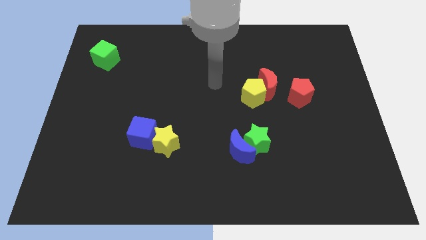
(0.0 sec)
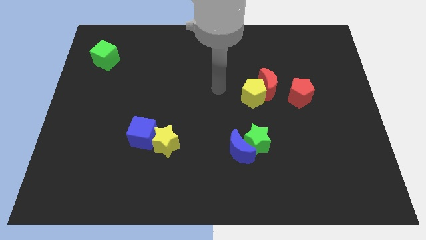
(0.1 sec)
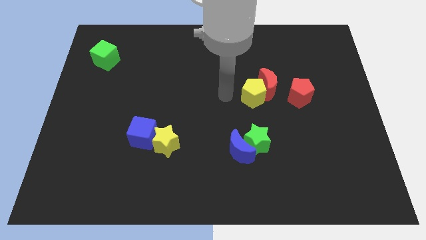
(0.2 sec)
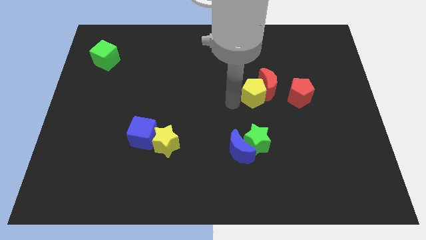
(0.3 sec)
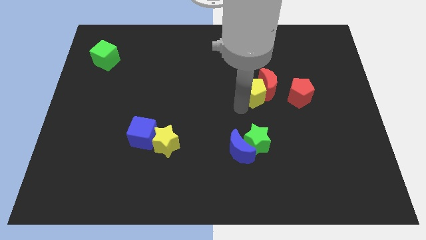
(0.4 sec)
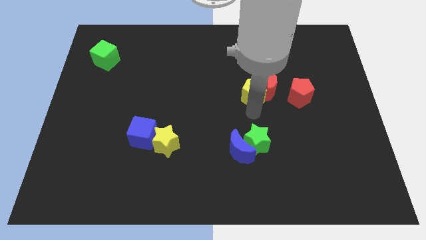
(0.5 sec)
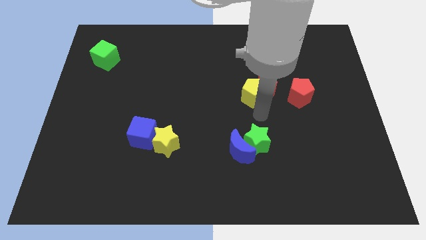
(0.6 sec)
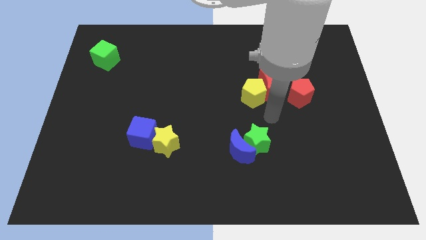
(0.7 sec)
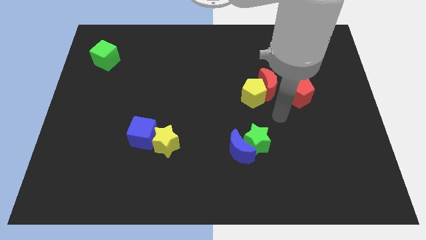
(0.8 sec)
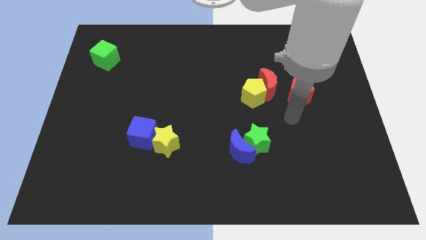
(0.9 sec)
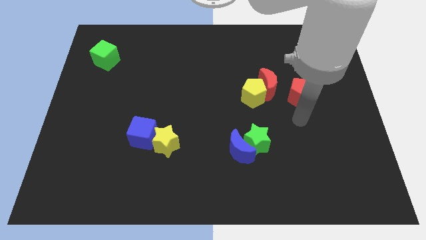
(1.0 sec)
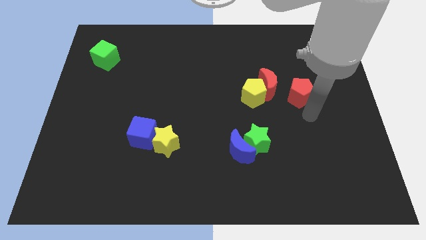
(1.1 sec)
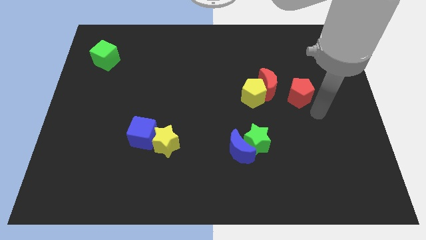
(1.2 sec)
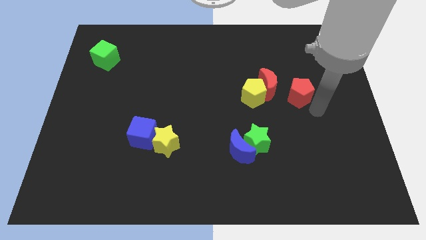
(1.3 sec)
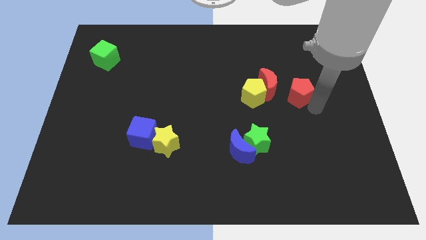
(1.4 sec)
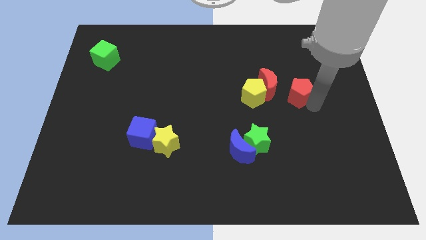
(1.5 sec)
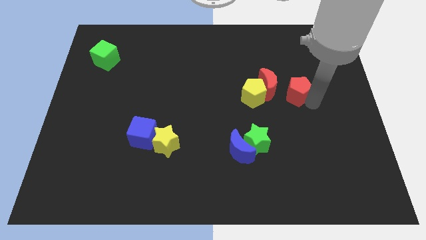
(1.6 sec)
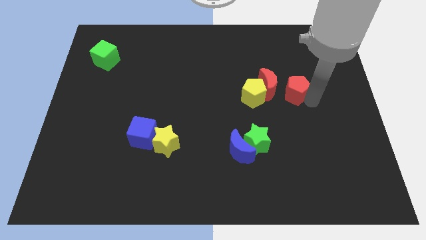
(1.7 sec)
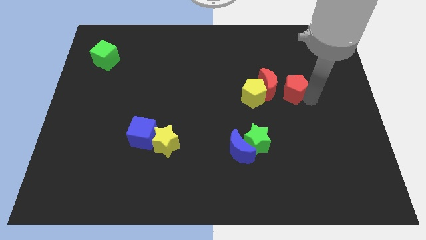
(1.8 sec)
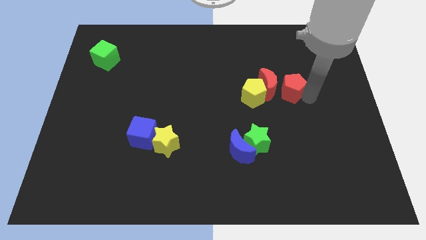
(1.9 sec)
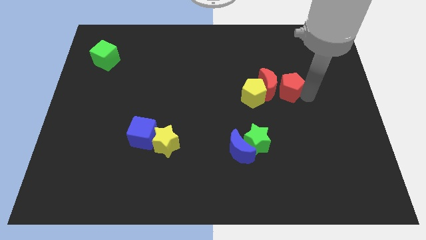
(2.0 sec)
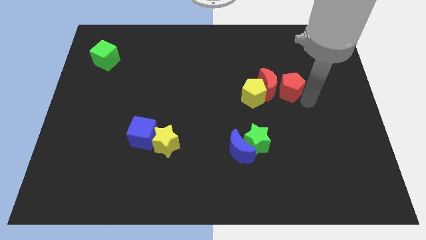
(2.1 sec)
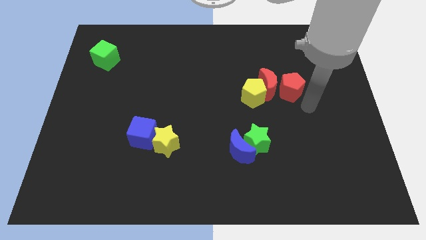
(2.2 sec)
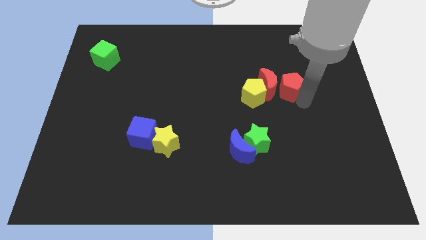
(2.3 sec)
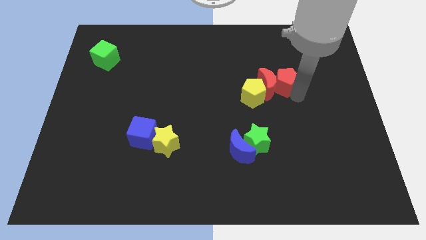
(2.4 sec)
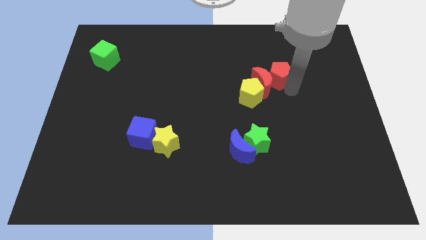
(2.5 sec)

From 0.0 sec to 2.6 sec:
push the red pentagon diagonally upwards and left somewhat

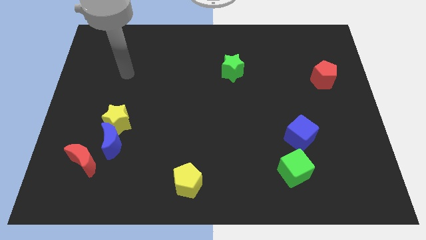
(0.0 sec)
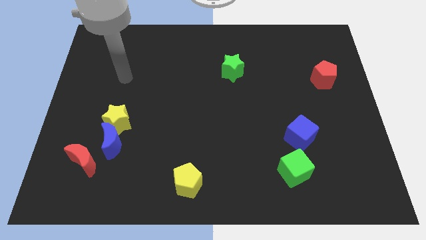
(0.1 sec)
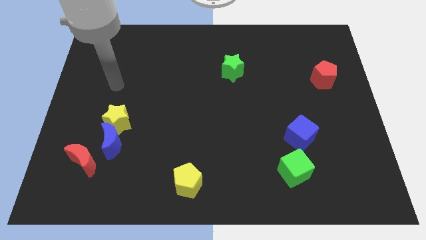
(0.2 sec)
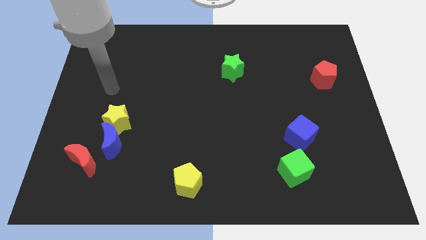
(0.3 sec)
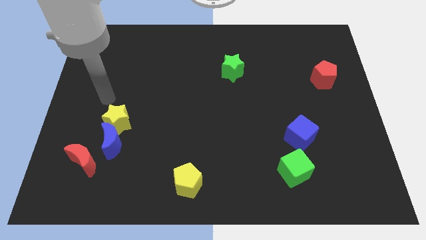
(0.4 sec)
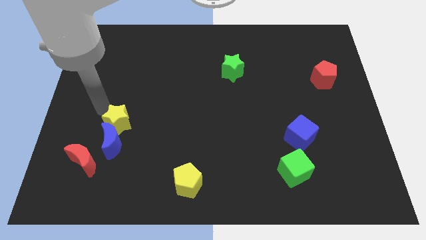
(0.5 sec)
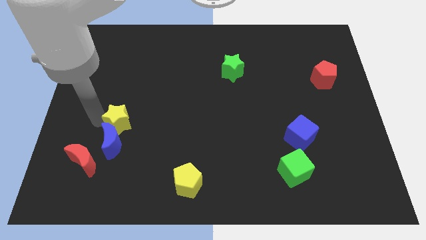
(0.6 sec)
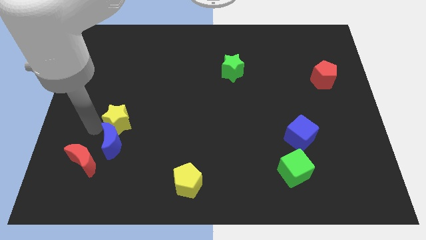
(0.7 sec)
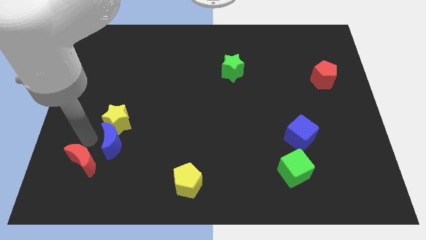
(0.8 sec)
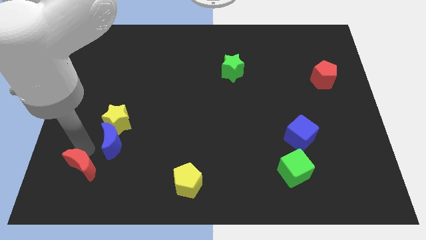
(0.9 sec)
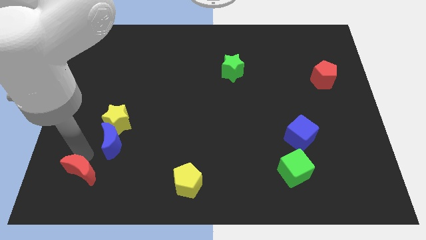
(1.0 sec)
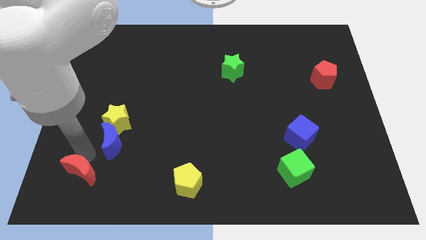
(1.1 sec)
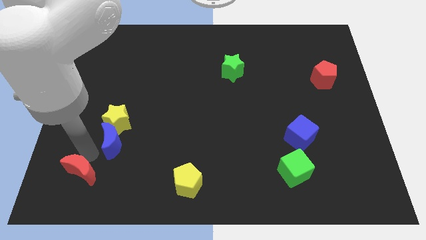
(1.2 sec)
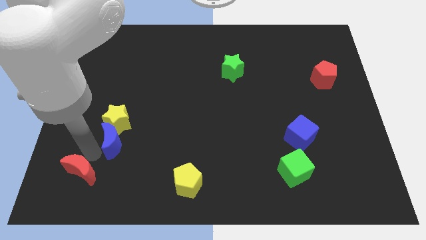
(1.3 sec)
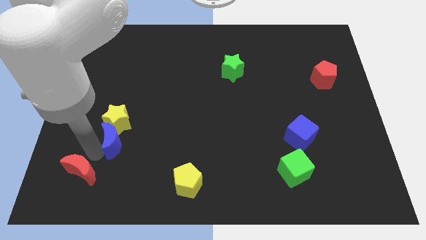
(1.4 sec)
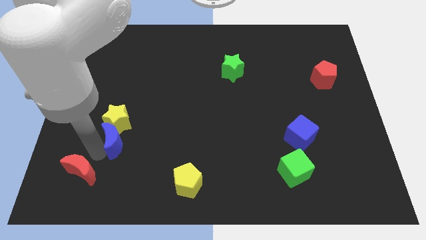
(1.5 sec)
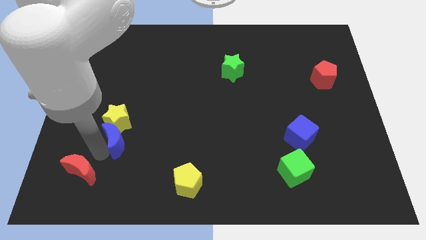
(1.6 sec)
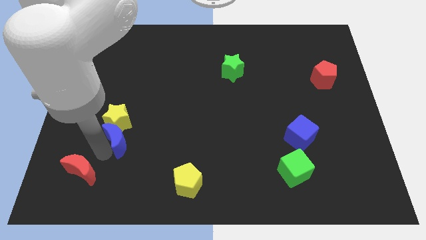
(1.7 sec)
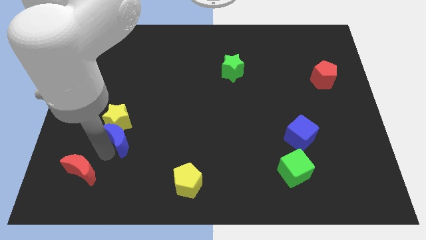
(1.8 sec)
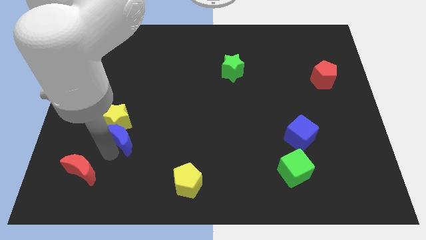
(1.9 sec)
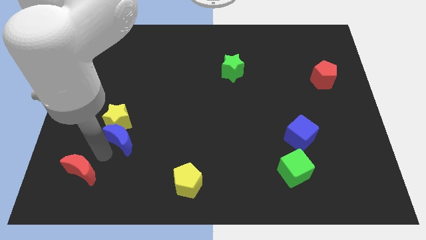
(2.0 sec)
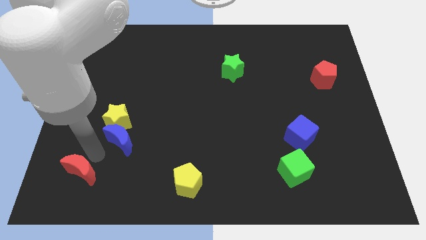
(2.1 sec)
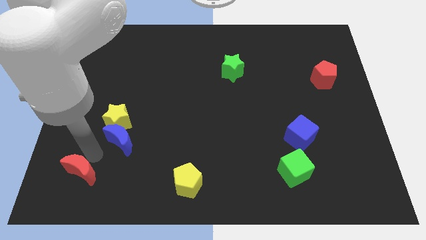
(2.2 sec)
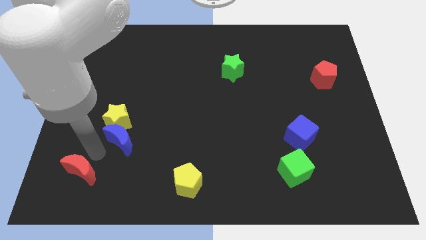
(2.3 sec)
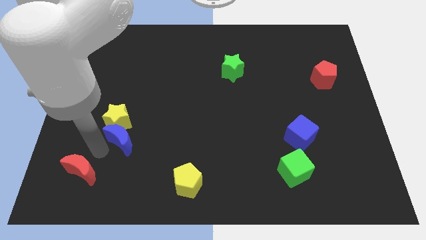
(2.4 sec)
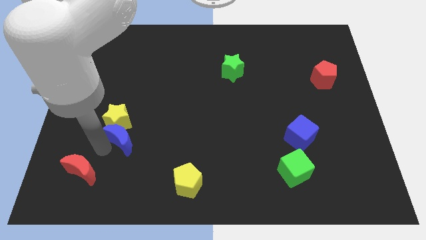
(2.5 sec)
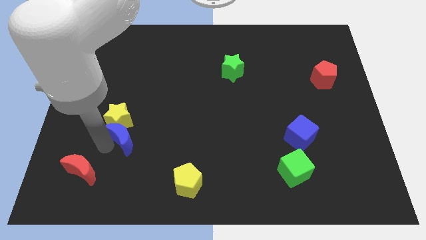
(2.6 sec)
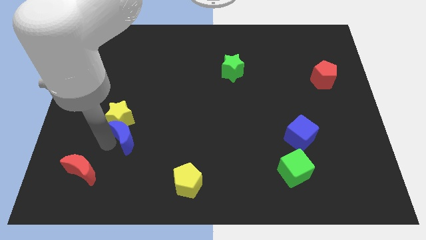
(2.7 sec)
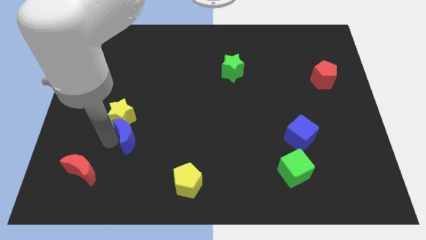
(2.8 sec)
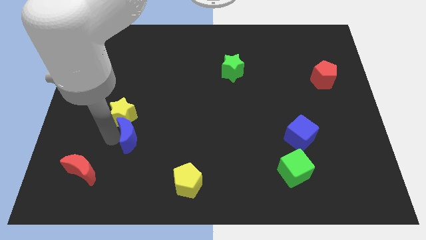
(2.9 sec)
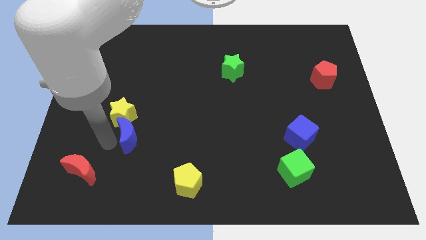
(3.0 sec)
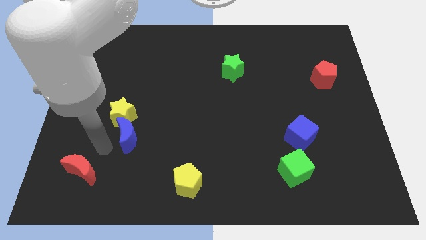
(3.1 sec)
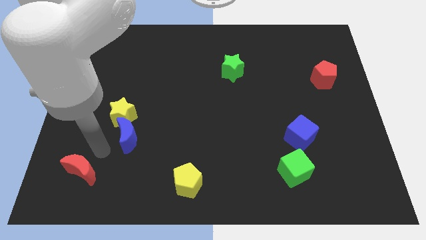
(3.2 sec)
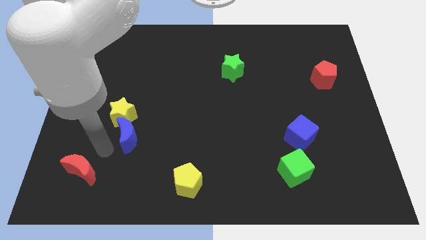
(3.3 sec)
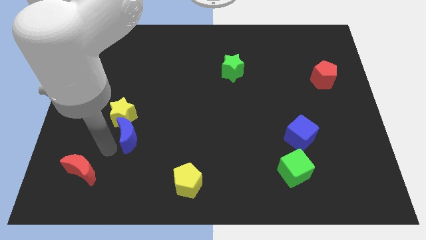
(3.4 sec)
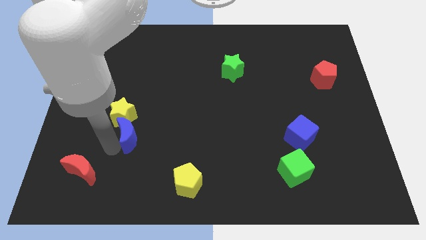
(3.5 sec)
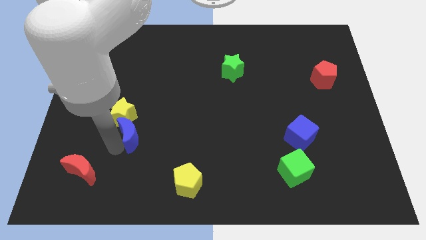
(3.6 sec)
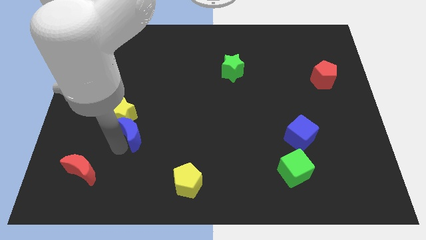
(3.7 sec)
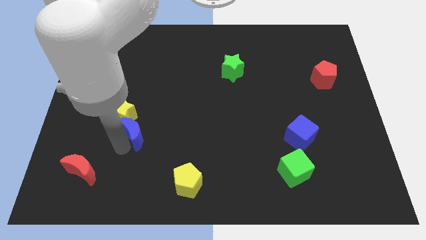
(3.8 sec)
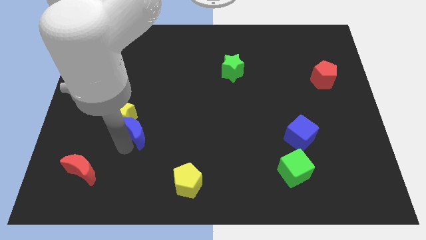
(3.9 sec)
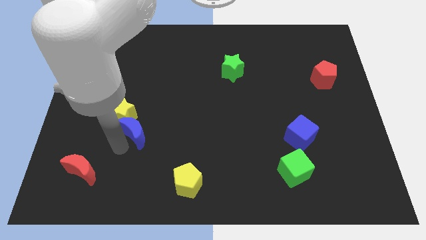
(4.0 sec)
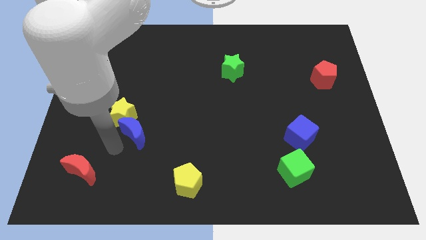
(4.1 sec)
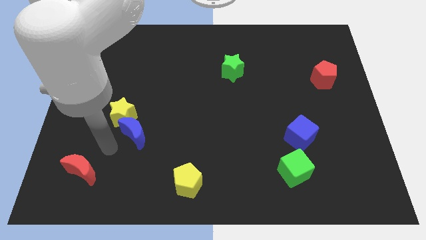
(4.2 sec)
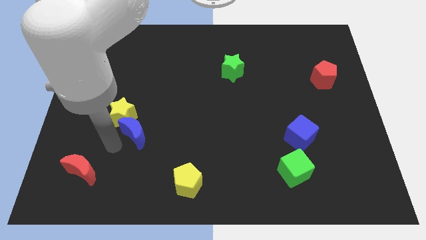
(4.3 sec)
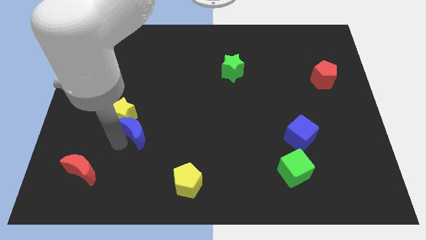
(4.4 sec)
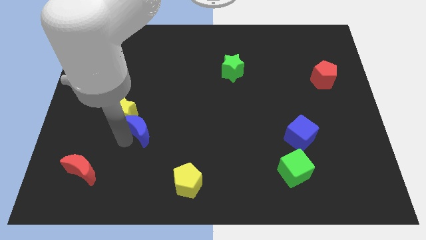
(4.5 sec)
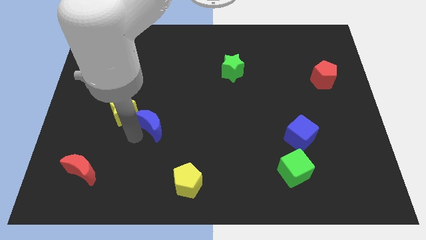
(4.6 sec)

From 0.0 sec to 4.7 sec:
push the blue moon a bit up and then right

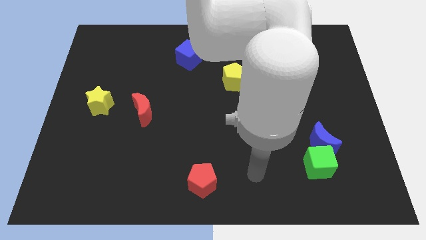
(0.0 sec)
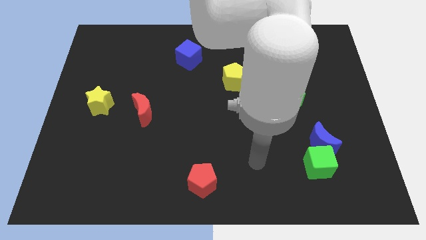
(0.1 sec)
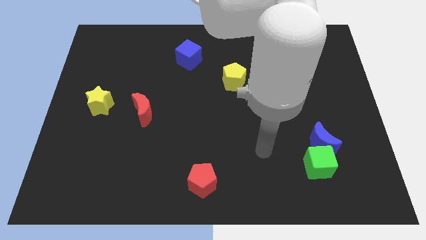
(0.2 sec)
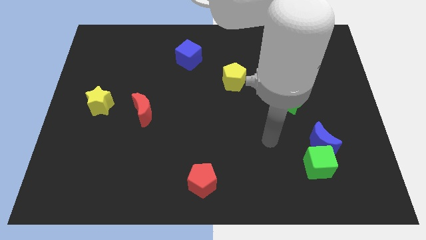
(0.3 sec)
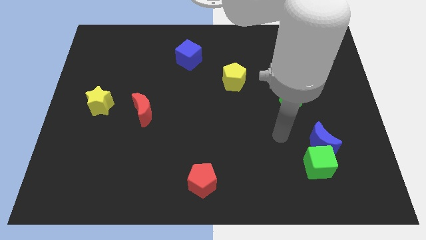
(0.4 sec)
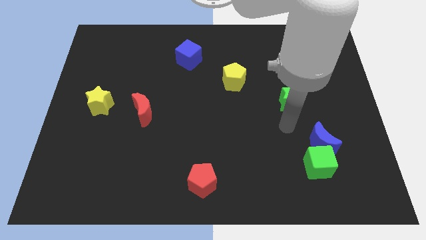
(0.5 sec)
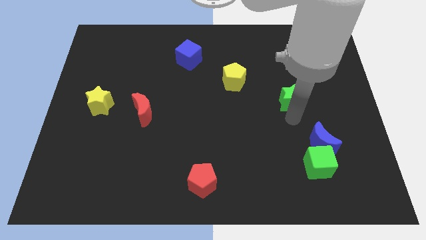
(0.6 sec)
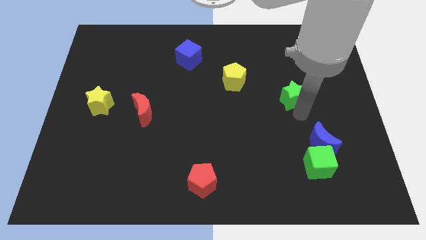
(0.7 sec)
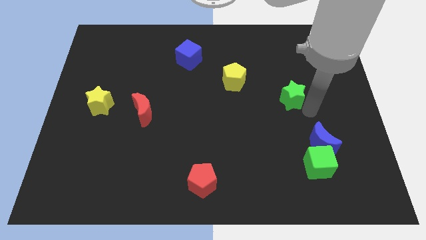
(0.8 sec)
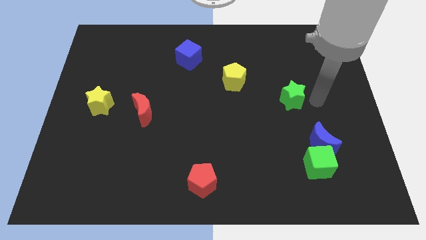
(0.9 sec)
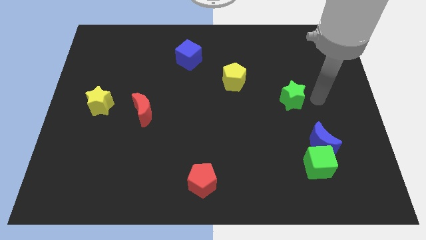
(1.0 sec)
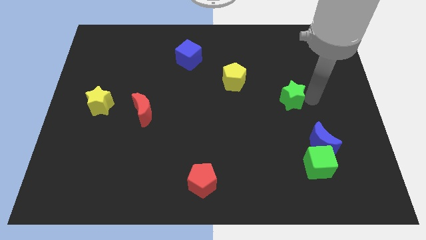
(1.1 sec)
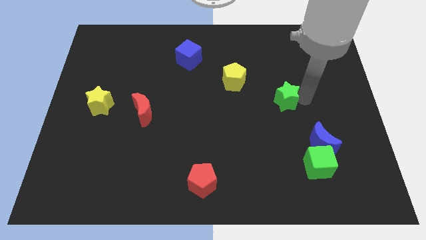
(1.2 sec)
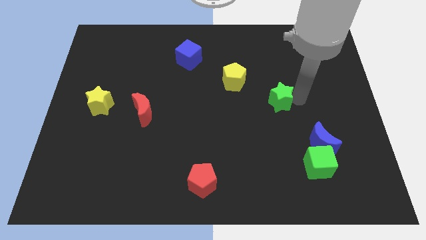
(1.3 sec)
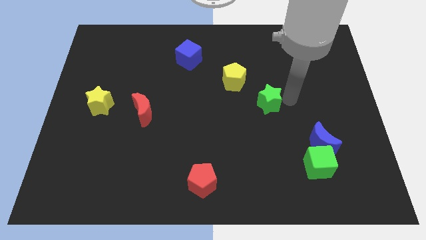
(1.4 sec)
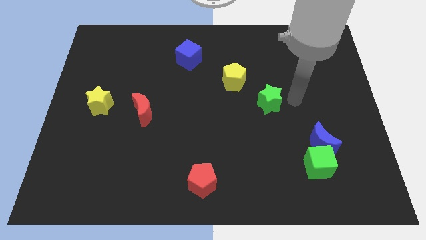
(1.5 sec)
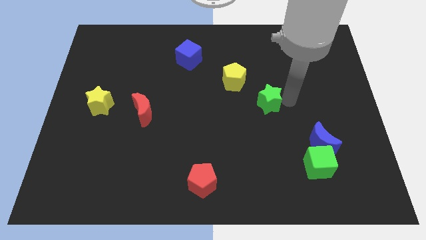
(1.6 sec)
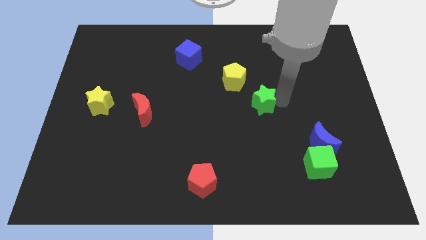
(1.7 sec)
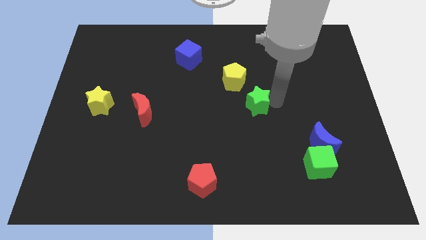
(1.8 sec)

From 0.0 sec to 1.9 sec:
push the green star somewhat left
